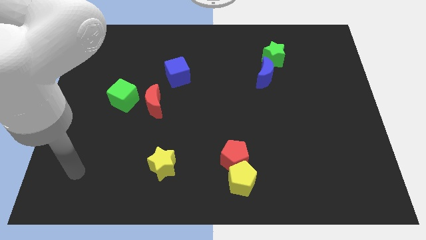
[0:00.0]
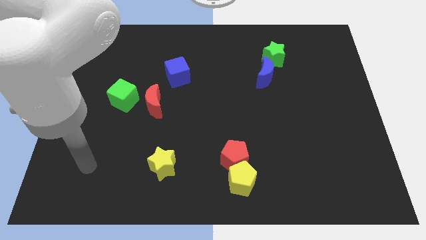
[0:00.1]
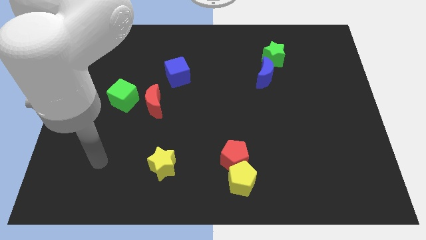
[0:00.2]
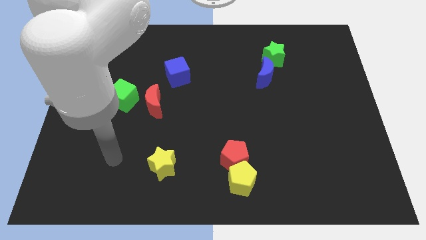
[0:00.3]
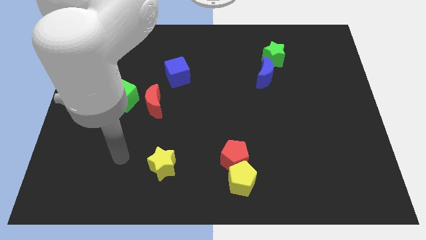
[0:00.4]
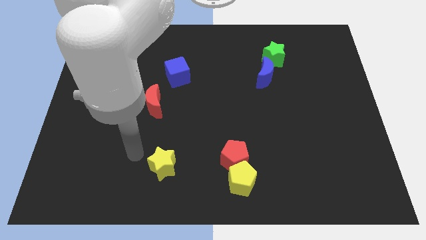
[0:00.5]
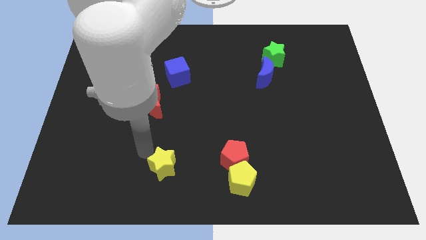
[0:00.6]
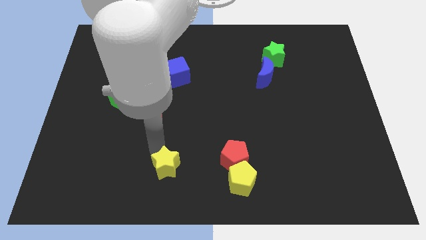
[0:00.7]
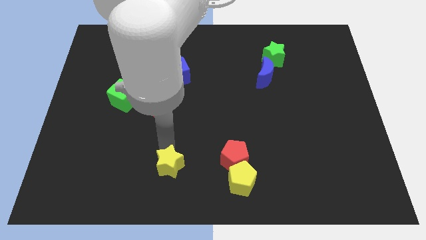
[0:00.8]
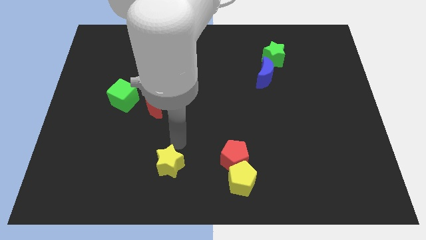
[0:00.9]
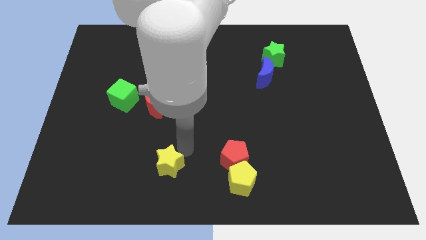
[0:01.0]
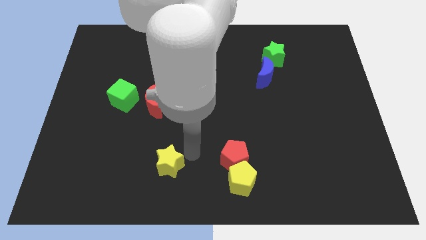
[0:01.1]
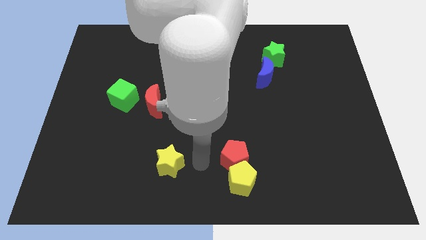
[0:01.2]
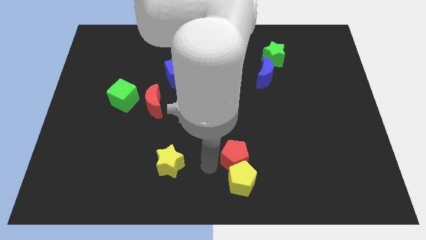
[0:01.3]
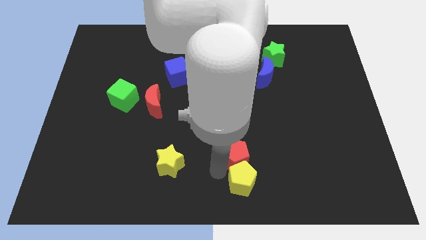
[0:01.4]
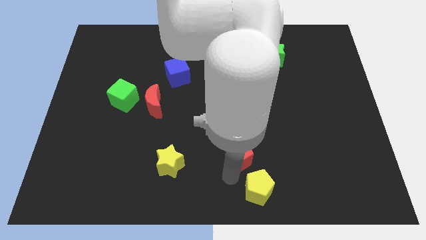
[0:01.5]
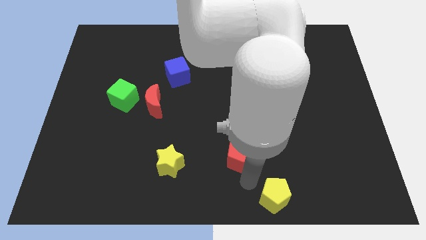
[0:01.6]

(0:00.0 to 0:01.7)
move the red pentagon away from the yellow pentagon

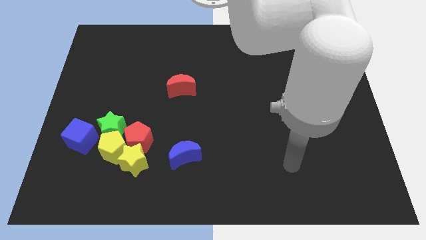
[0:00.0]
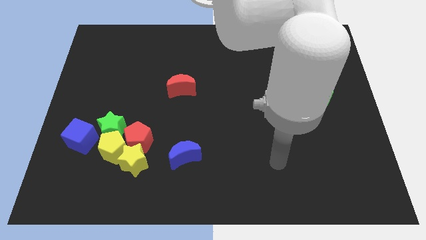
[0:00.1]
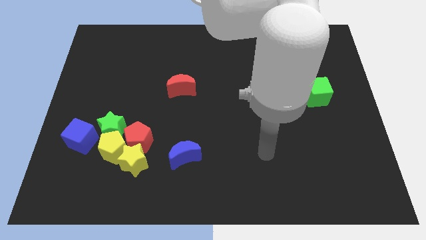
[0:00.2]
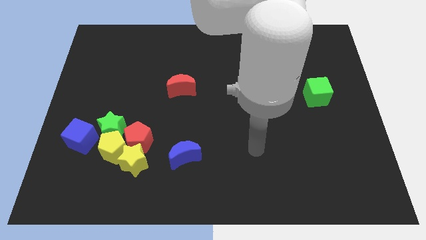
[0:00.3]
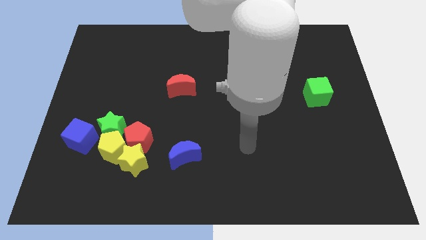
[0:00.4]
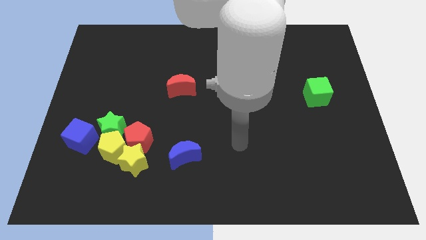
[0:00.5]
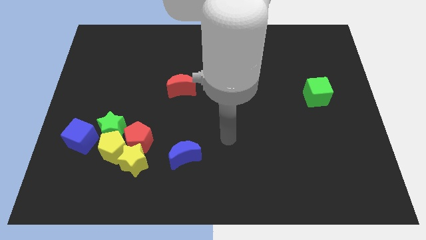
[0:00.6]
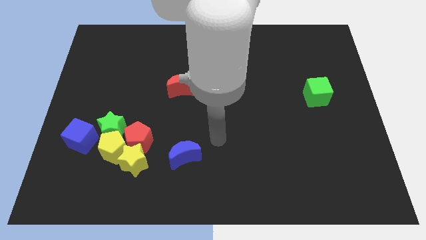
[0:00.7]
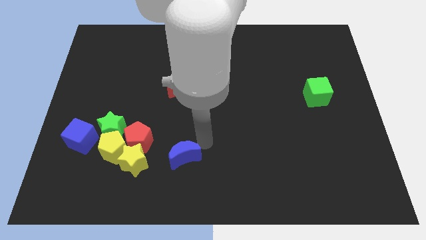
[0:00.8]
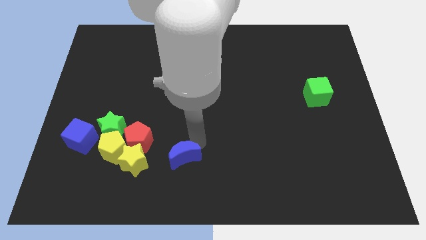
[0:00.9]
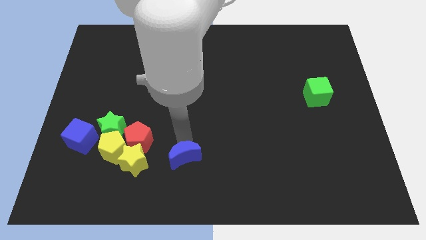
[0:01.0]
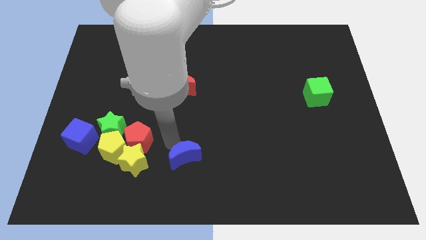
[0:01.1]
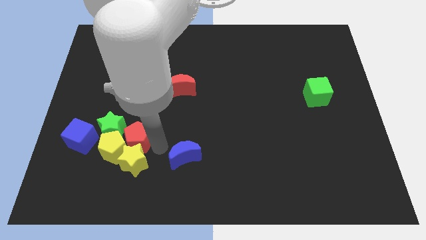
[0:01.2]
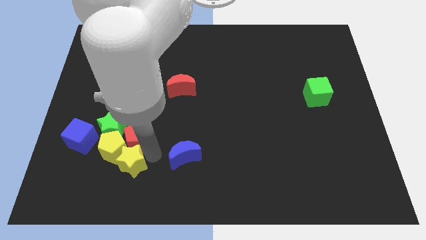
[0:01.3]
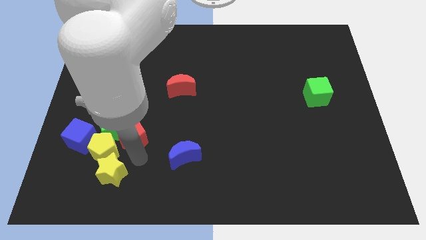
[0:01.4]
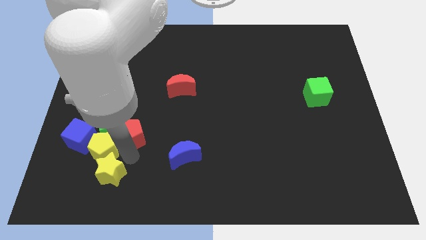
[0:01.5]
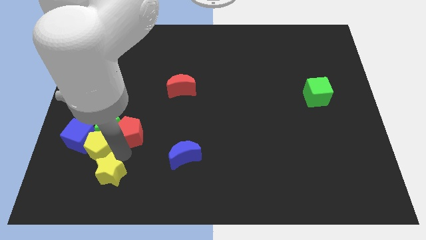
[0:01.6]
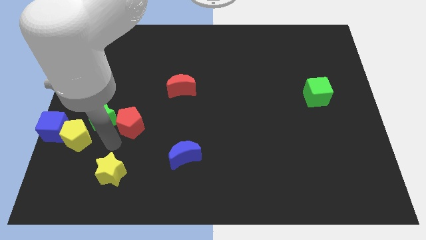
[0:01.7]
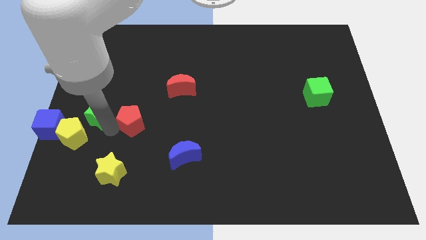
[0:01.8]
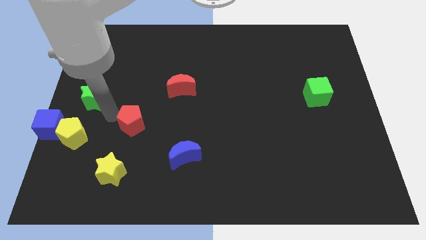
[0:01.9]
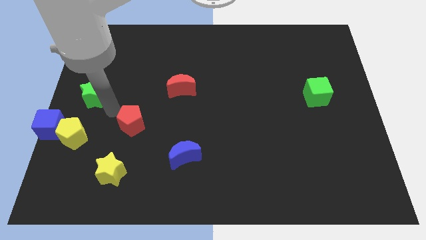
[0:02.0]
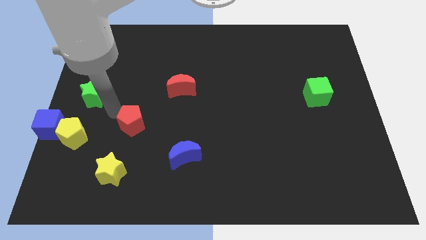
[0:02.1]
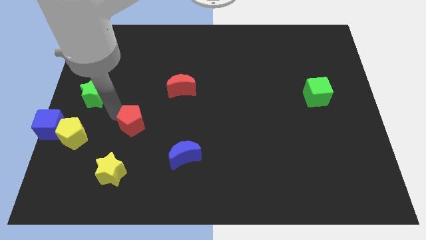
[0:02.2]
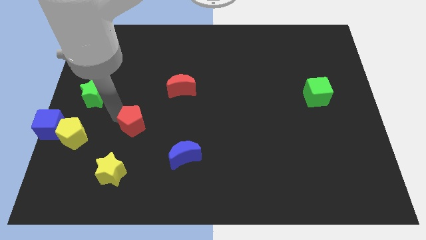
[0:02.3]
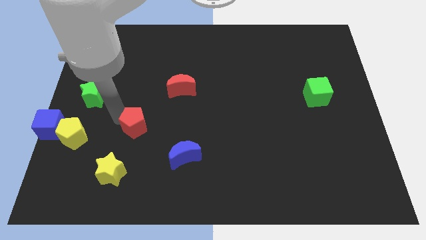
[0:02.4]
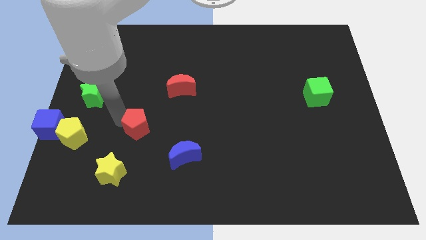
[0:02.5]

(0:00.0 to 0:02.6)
separate the red pentagon from the yellow star, yellow pentagon, and green star

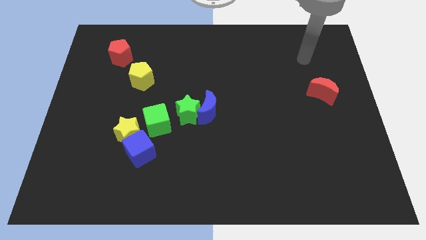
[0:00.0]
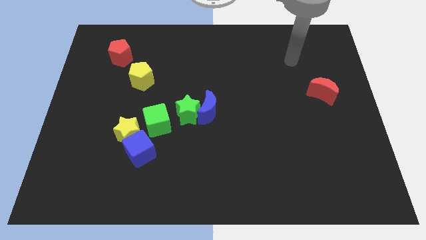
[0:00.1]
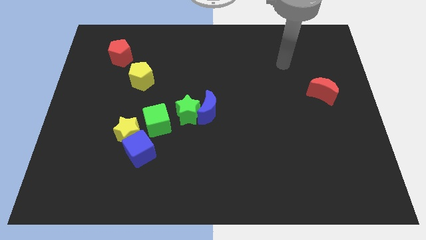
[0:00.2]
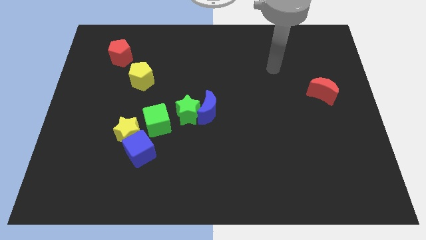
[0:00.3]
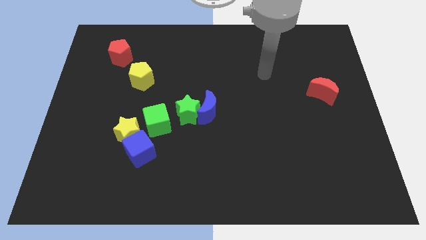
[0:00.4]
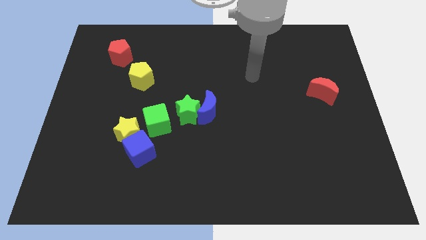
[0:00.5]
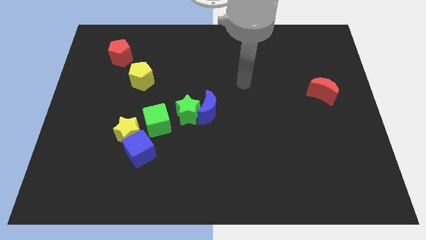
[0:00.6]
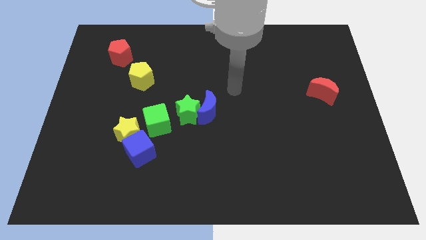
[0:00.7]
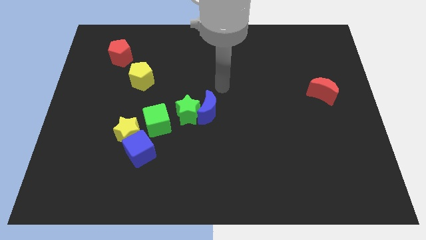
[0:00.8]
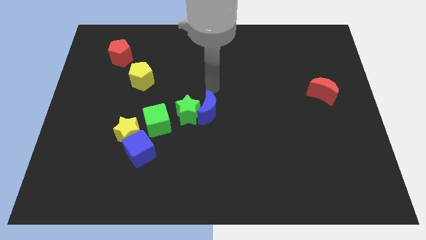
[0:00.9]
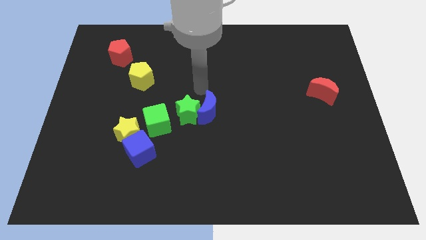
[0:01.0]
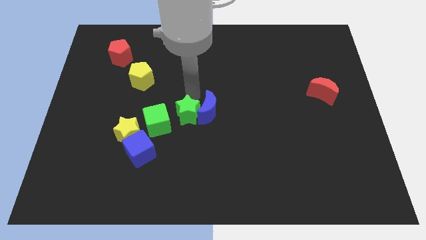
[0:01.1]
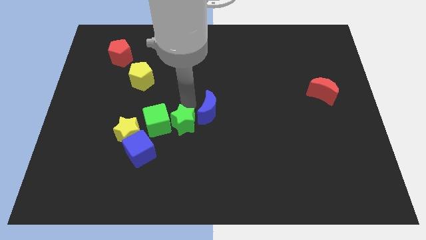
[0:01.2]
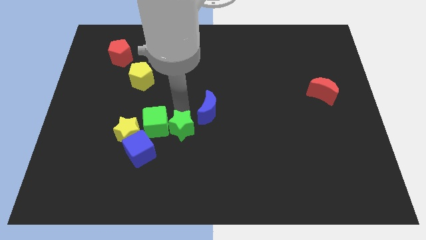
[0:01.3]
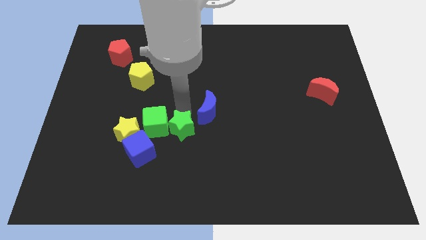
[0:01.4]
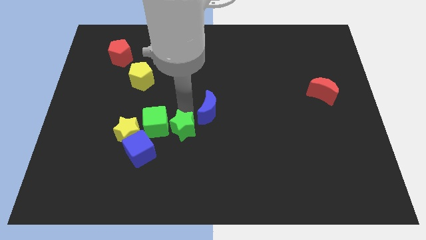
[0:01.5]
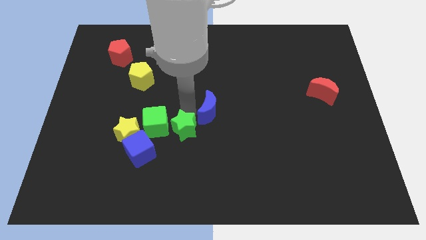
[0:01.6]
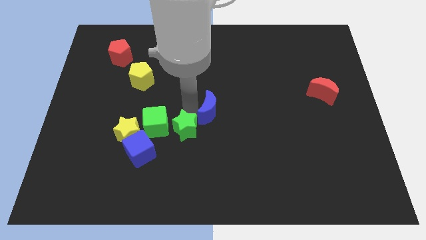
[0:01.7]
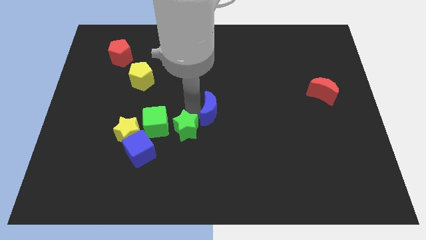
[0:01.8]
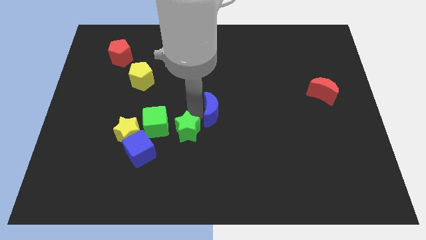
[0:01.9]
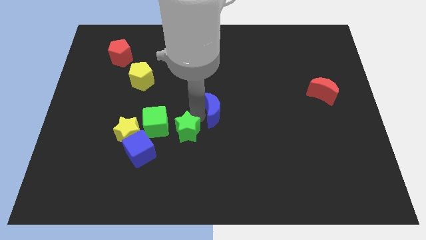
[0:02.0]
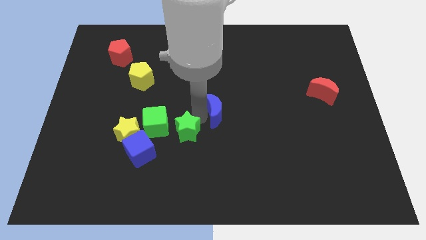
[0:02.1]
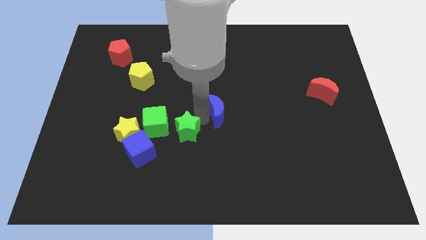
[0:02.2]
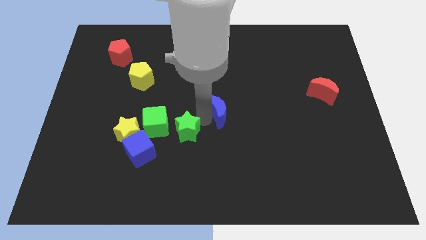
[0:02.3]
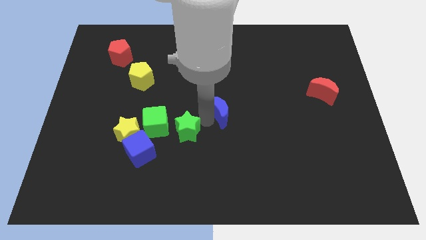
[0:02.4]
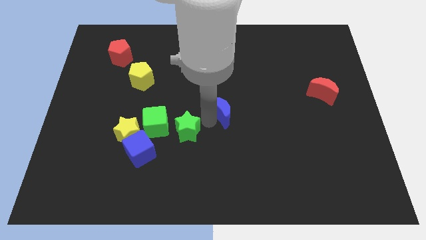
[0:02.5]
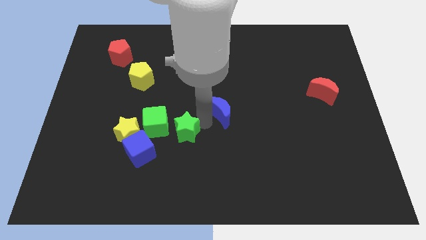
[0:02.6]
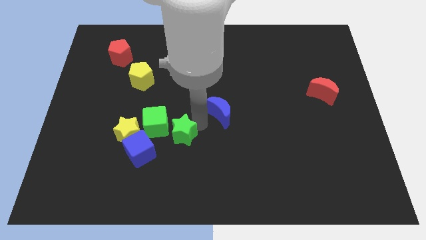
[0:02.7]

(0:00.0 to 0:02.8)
pull the blue moon apart from the green star

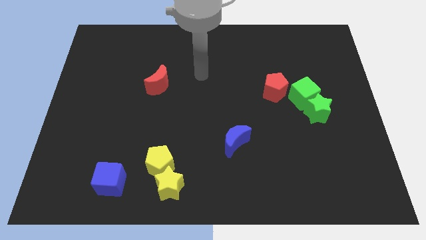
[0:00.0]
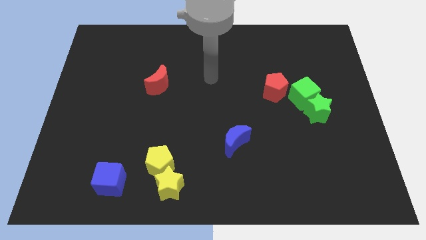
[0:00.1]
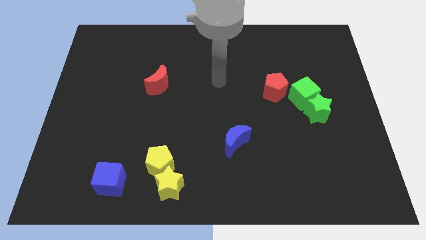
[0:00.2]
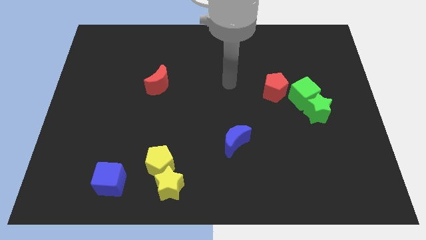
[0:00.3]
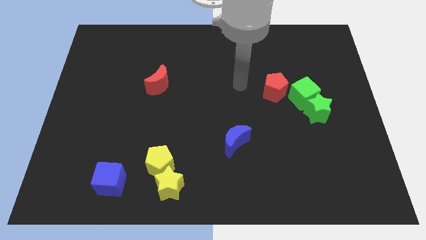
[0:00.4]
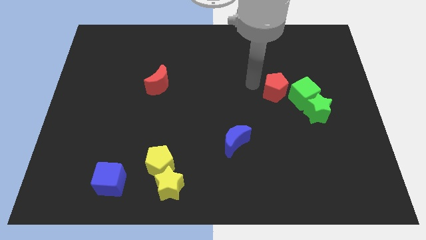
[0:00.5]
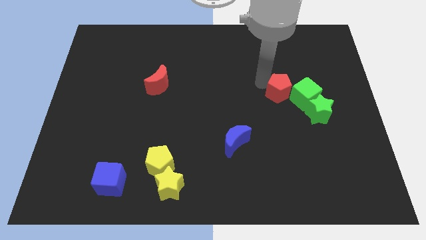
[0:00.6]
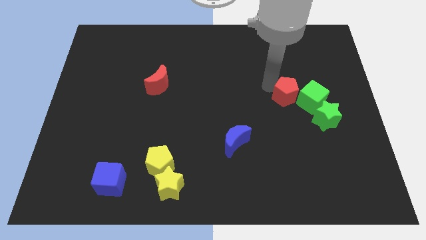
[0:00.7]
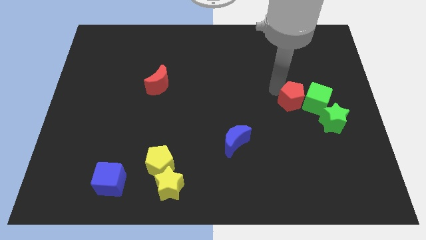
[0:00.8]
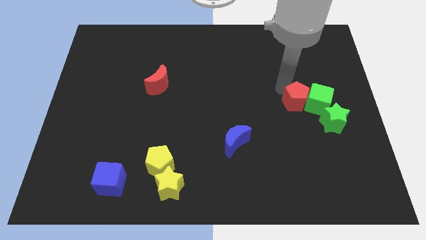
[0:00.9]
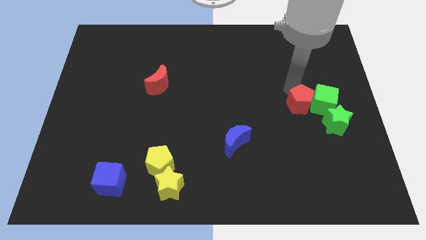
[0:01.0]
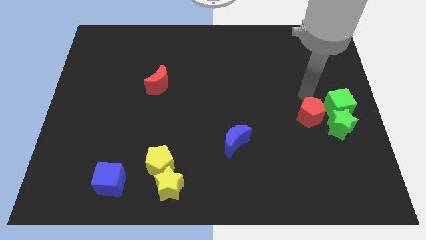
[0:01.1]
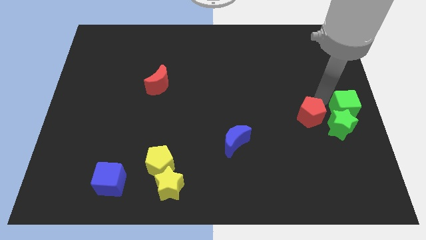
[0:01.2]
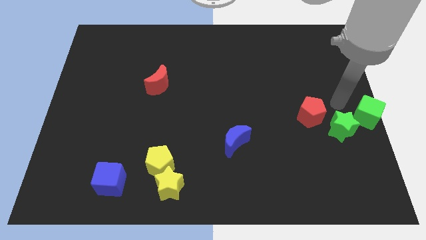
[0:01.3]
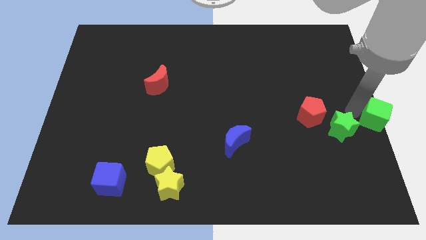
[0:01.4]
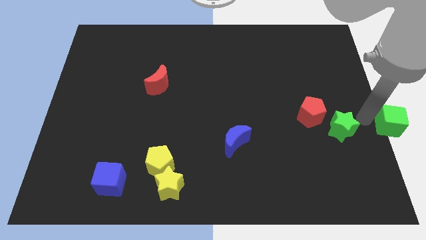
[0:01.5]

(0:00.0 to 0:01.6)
separate the green star from the green cube

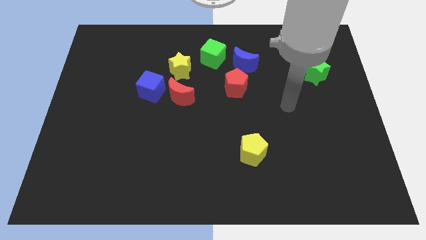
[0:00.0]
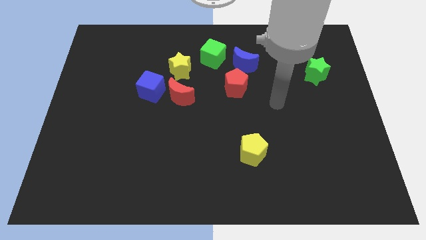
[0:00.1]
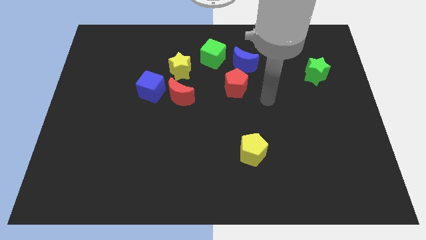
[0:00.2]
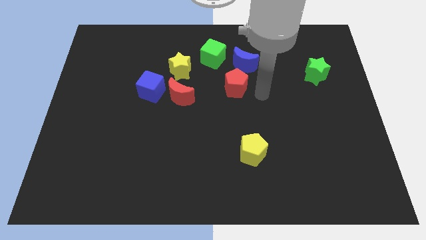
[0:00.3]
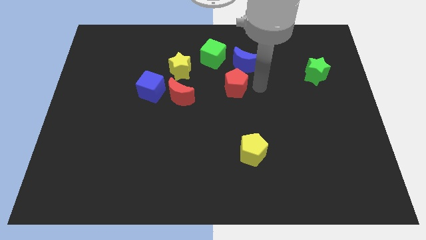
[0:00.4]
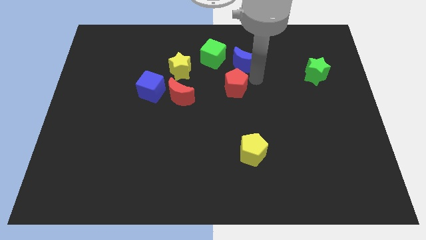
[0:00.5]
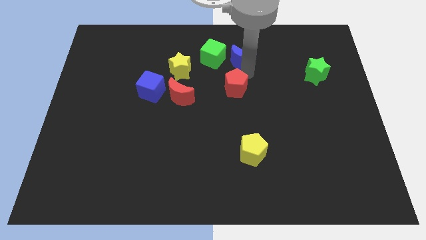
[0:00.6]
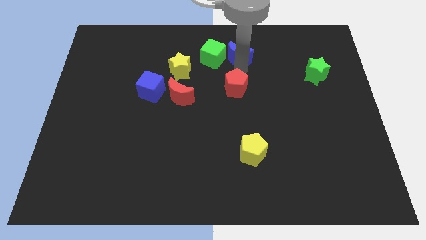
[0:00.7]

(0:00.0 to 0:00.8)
move the red pentagon away from the blue moon
